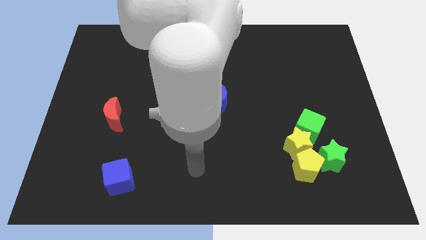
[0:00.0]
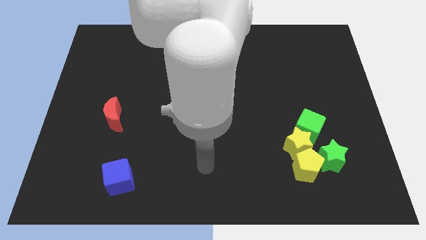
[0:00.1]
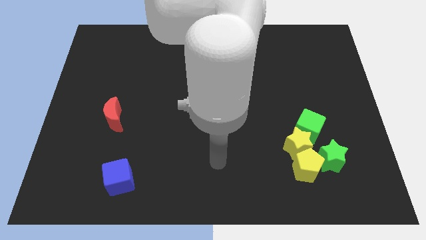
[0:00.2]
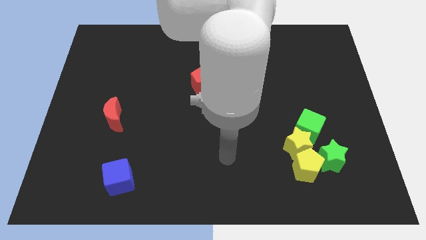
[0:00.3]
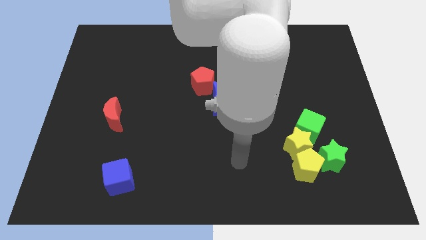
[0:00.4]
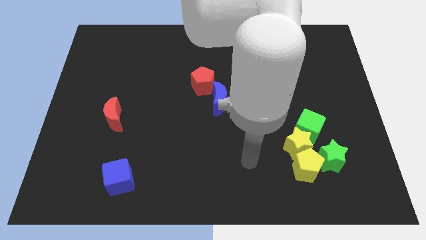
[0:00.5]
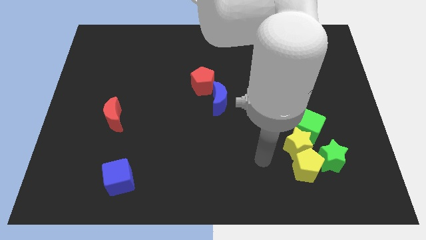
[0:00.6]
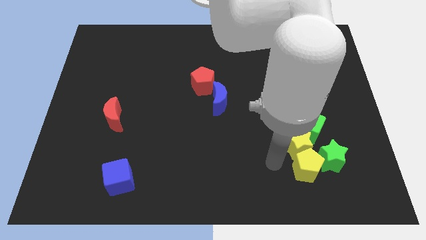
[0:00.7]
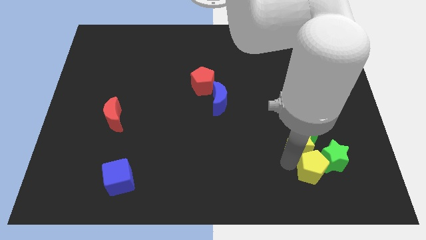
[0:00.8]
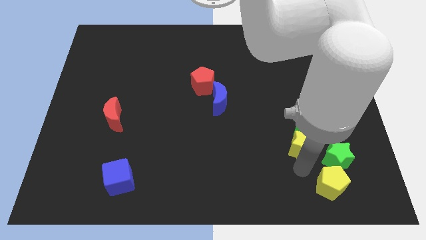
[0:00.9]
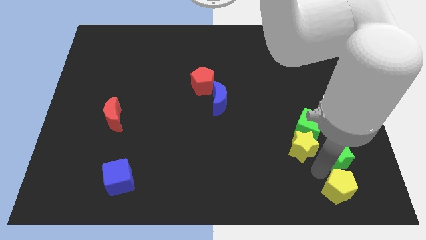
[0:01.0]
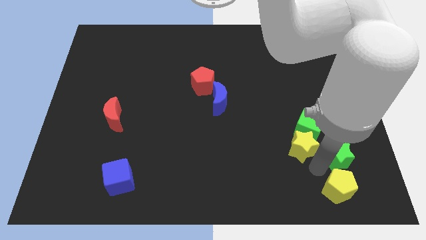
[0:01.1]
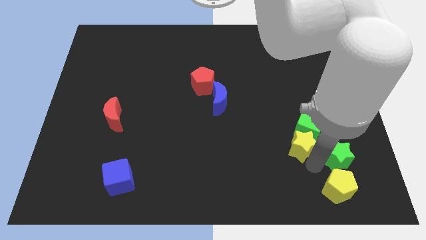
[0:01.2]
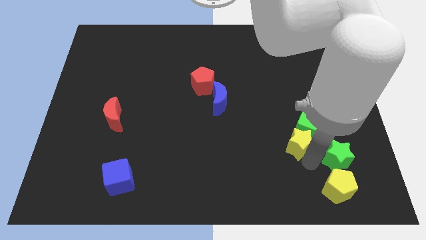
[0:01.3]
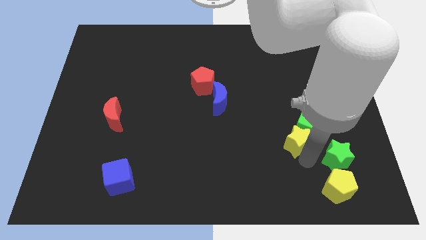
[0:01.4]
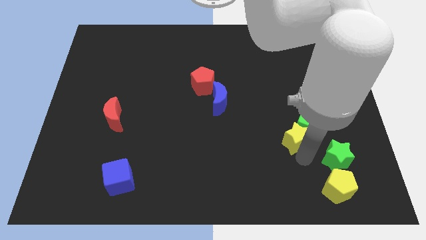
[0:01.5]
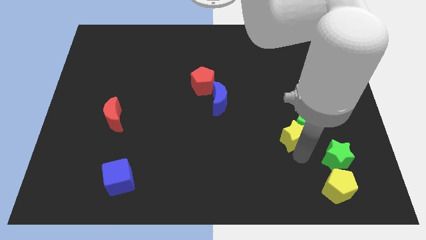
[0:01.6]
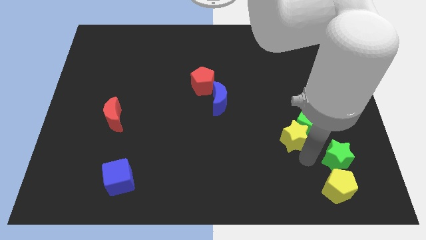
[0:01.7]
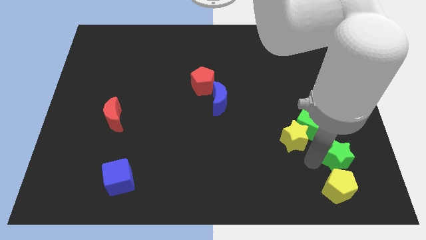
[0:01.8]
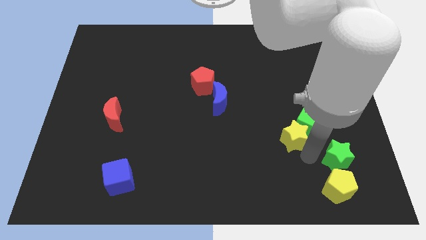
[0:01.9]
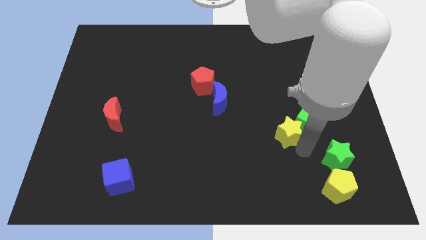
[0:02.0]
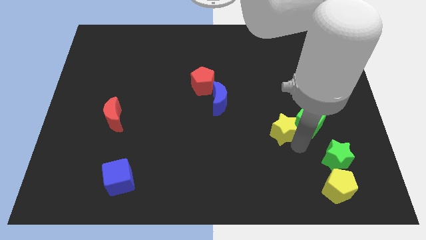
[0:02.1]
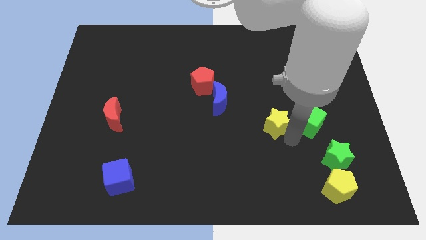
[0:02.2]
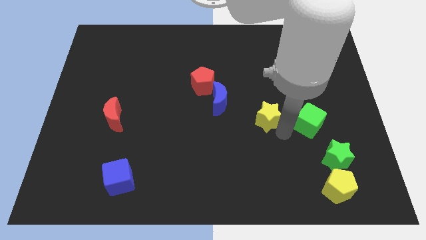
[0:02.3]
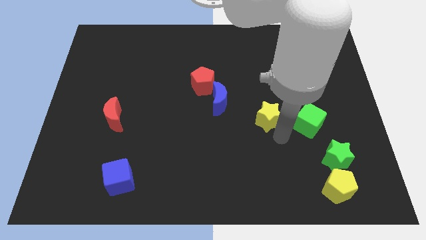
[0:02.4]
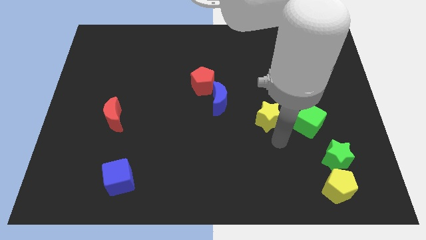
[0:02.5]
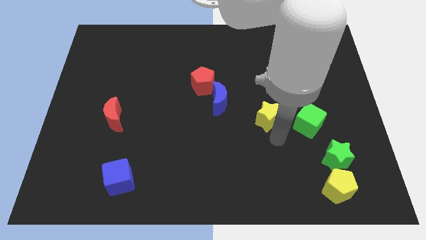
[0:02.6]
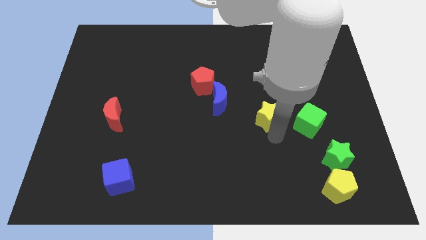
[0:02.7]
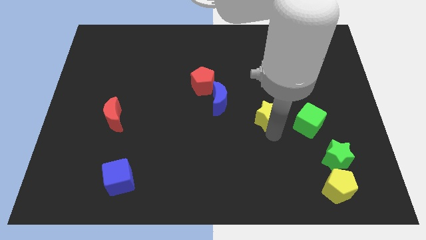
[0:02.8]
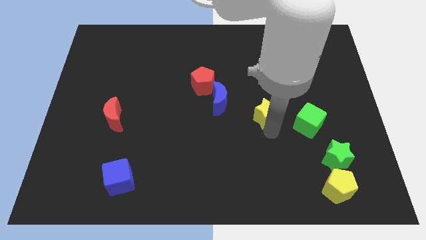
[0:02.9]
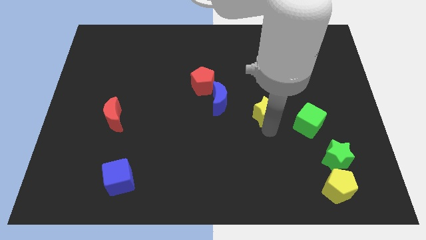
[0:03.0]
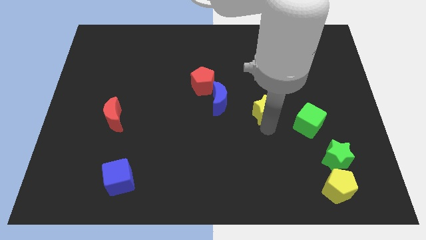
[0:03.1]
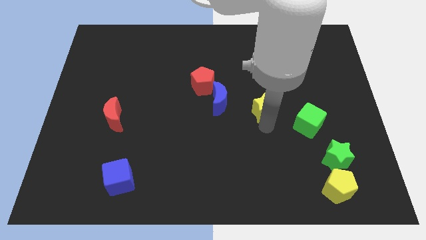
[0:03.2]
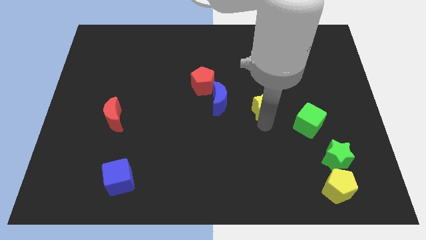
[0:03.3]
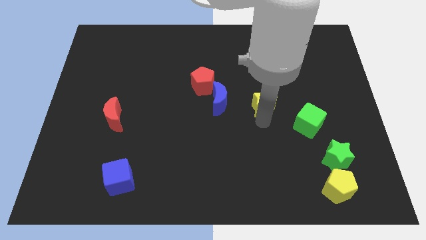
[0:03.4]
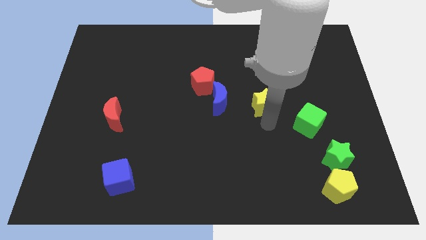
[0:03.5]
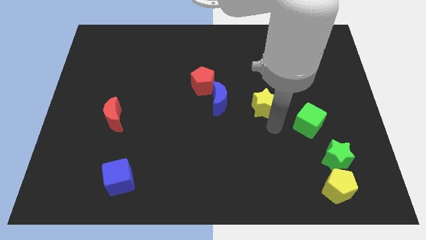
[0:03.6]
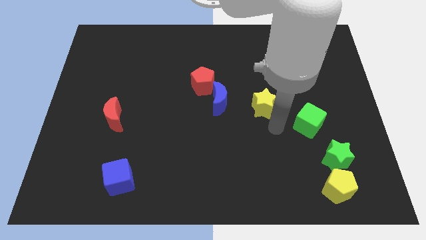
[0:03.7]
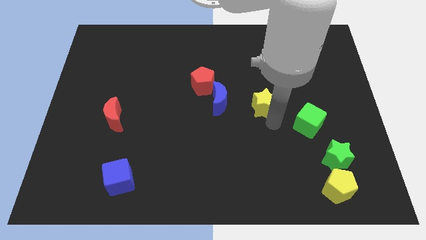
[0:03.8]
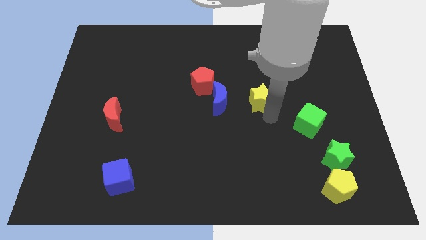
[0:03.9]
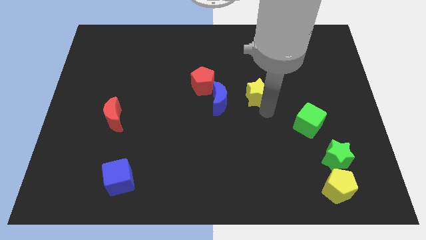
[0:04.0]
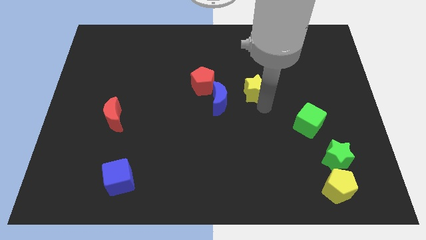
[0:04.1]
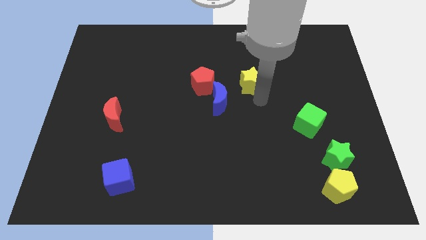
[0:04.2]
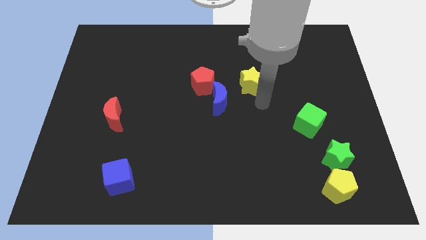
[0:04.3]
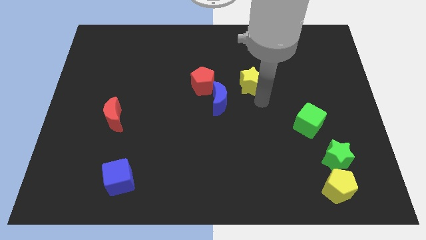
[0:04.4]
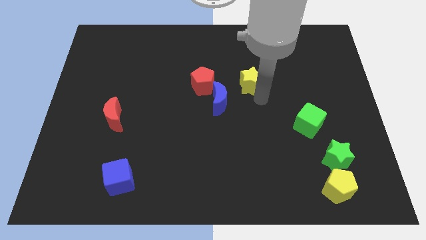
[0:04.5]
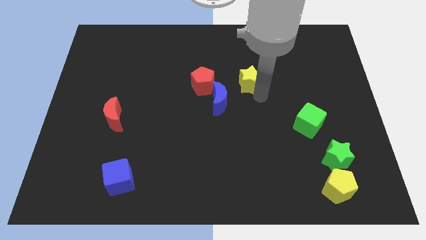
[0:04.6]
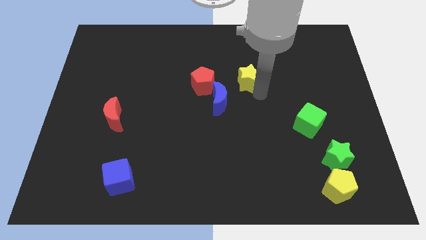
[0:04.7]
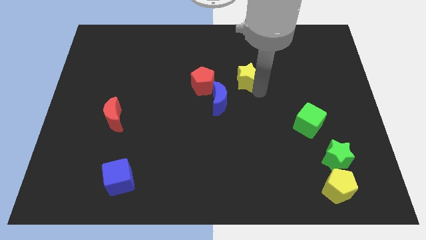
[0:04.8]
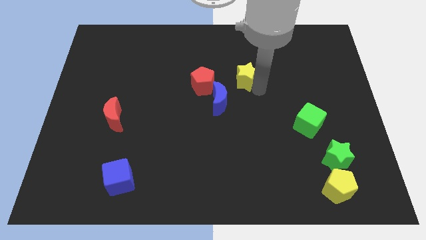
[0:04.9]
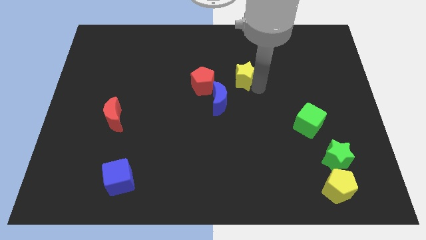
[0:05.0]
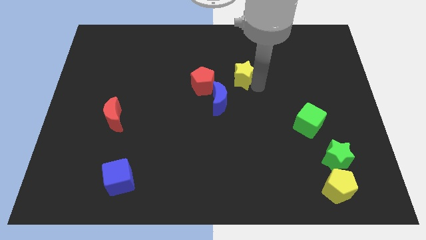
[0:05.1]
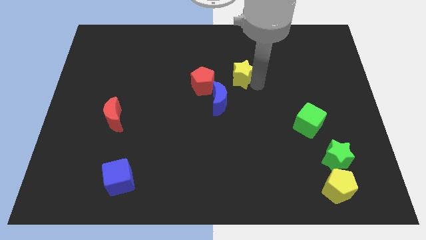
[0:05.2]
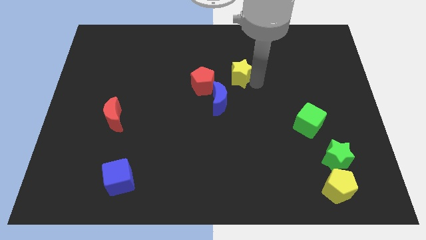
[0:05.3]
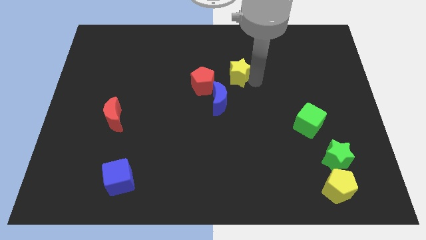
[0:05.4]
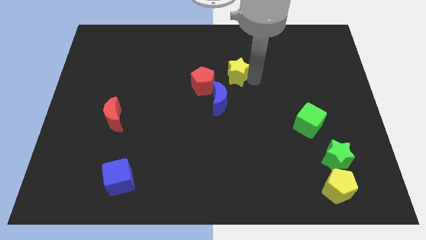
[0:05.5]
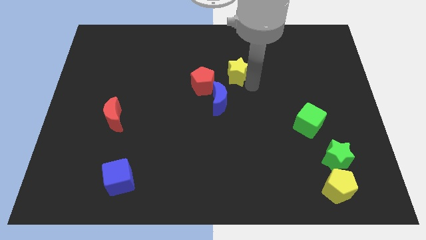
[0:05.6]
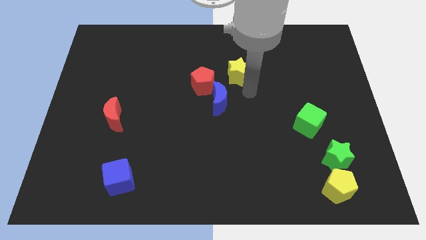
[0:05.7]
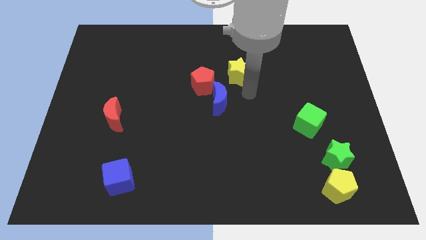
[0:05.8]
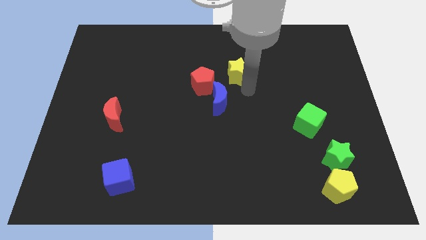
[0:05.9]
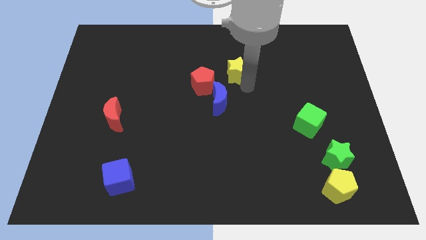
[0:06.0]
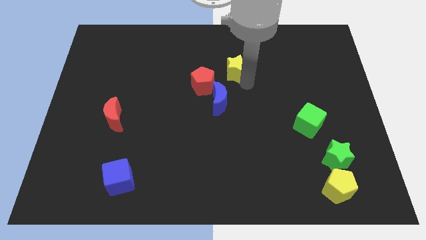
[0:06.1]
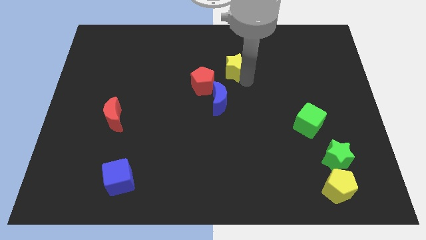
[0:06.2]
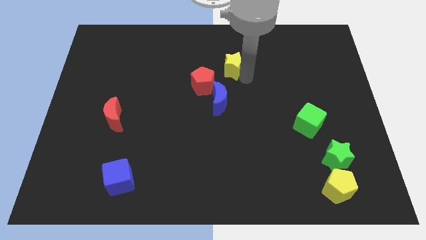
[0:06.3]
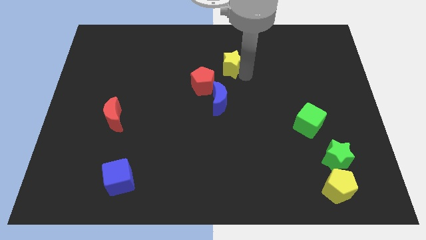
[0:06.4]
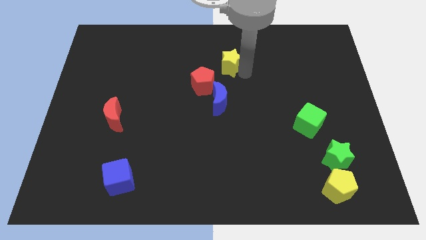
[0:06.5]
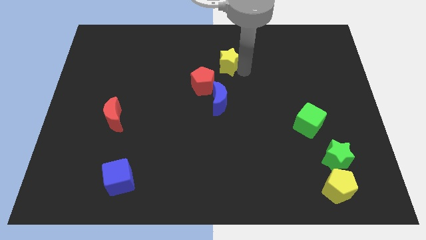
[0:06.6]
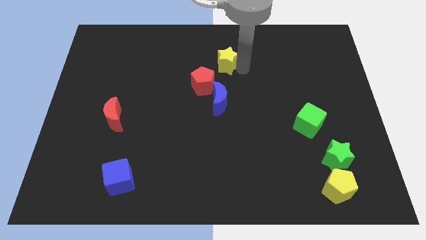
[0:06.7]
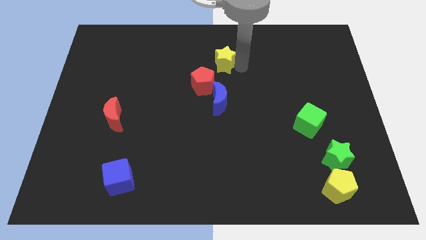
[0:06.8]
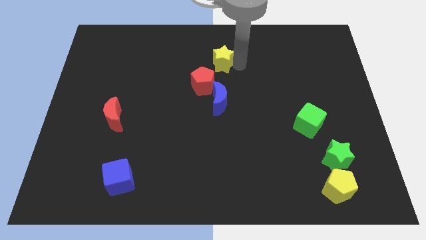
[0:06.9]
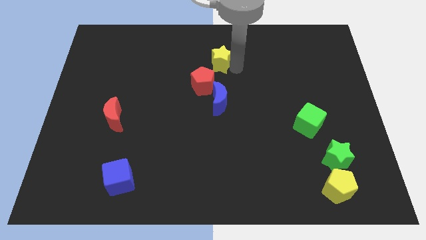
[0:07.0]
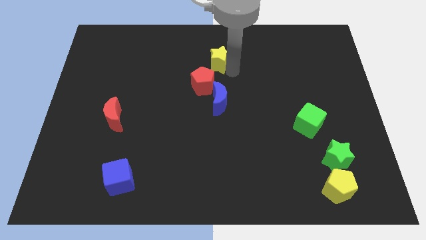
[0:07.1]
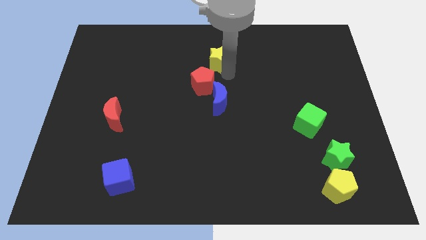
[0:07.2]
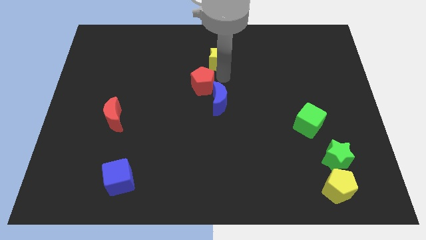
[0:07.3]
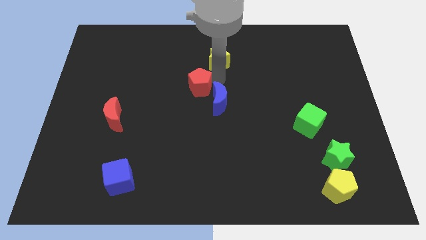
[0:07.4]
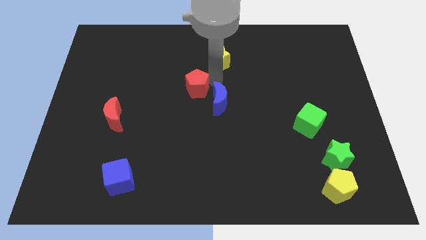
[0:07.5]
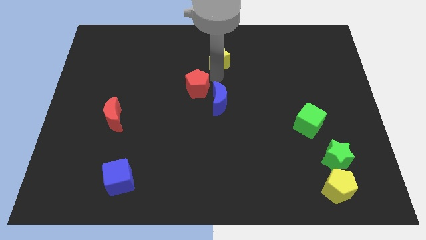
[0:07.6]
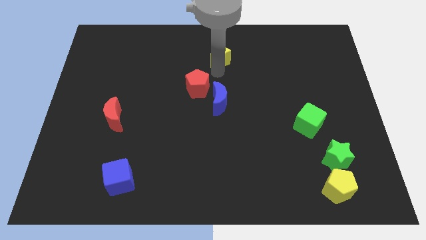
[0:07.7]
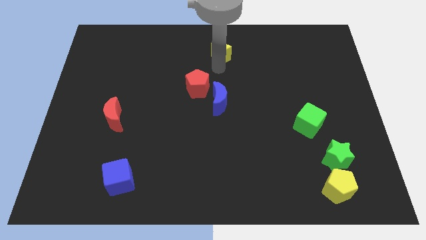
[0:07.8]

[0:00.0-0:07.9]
move the yellow star to the top
